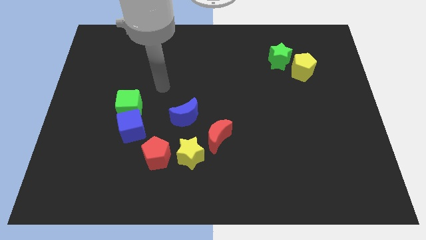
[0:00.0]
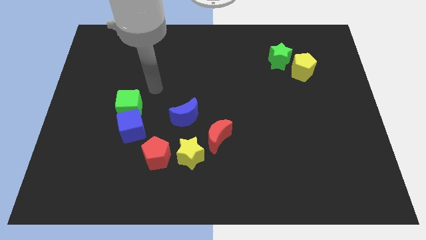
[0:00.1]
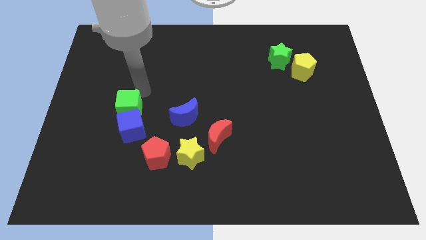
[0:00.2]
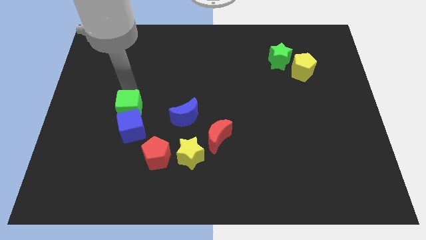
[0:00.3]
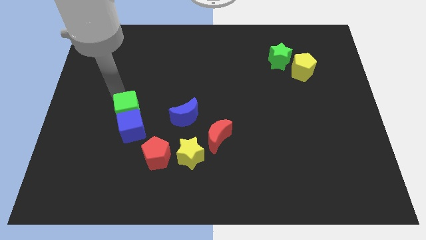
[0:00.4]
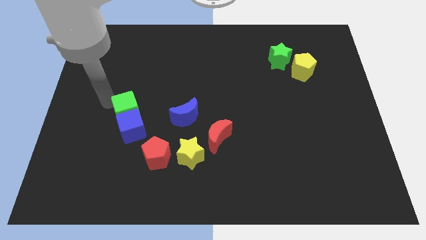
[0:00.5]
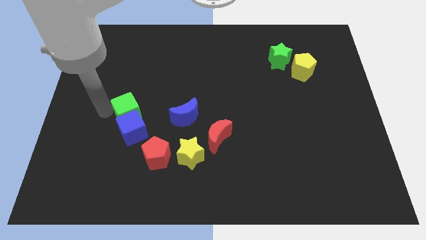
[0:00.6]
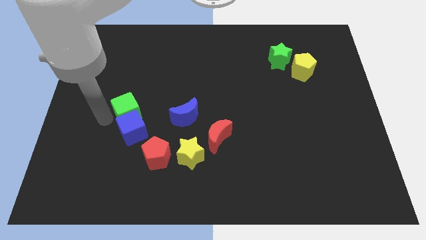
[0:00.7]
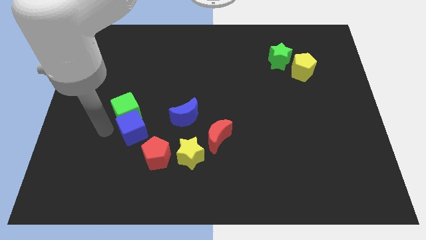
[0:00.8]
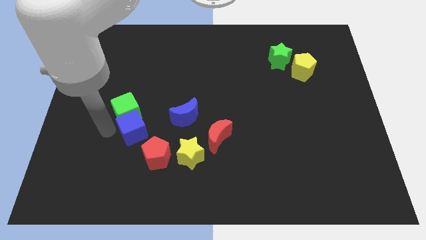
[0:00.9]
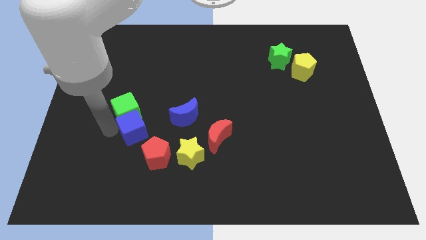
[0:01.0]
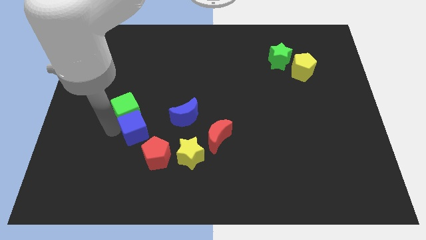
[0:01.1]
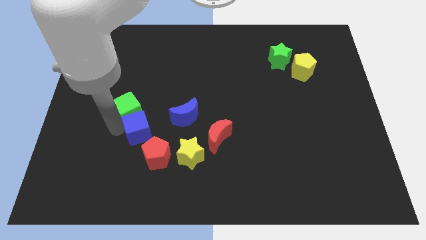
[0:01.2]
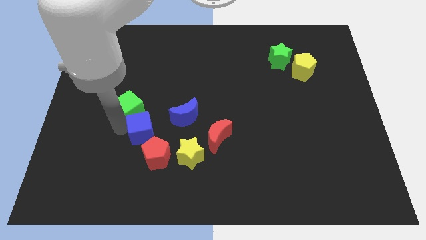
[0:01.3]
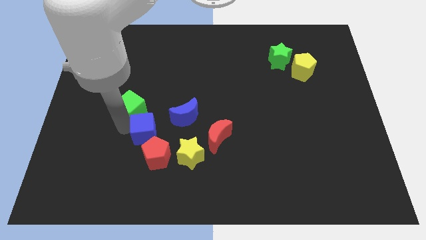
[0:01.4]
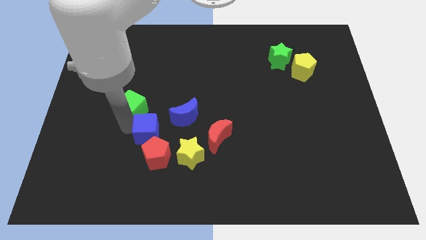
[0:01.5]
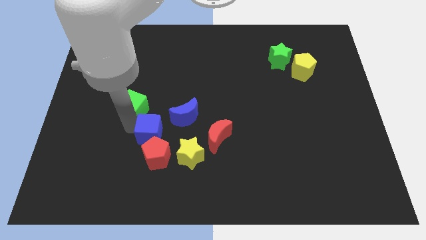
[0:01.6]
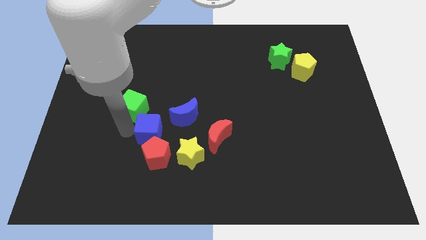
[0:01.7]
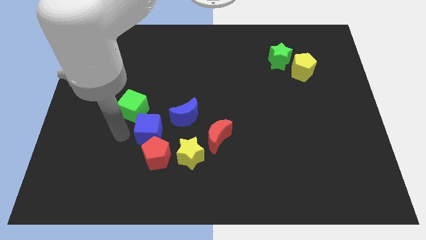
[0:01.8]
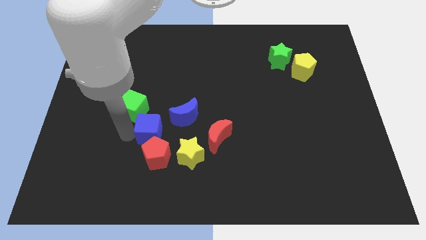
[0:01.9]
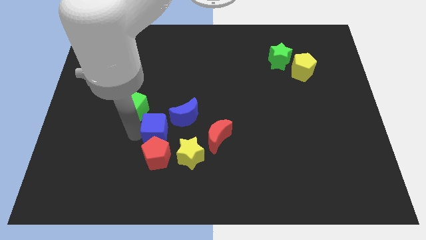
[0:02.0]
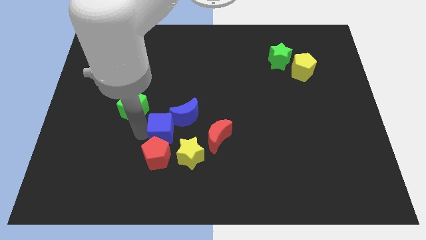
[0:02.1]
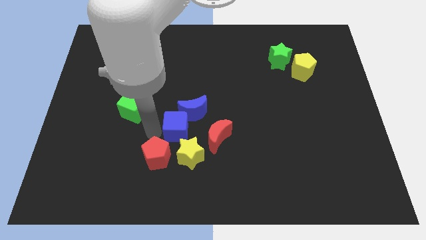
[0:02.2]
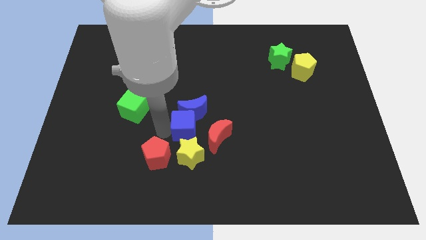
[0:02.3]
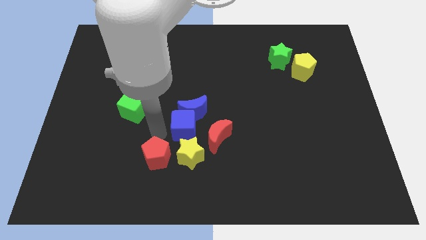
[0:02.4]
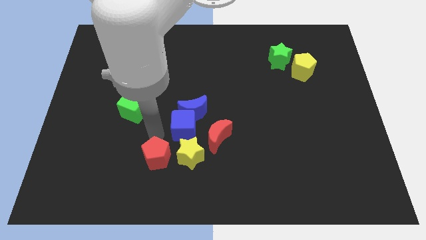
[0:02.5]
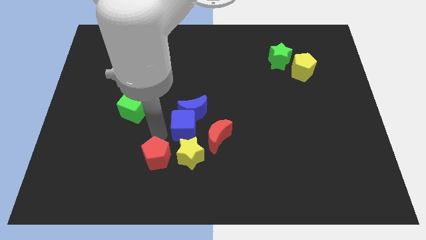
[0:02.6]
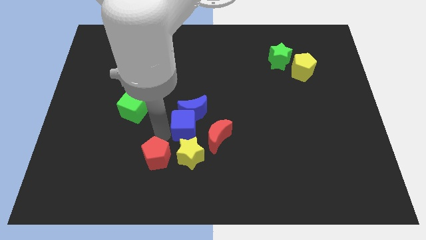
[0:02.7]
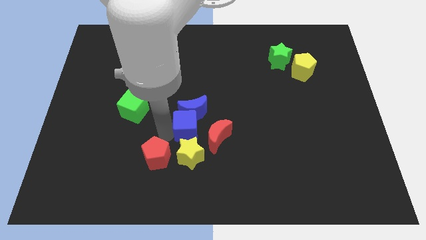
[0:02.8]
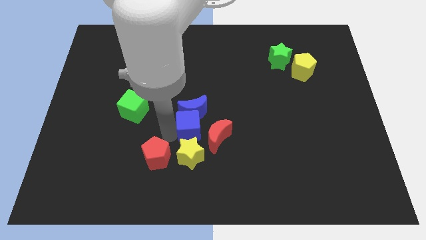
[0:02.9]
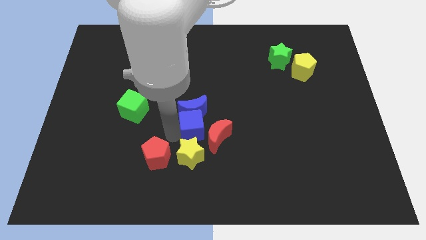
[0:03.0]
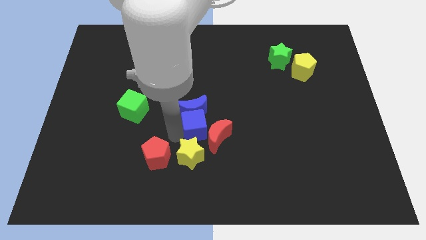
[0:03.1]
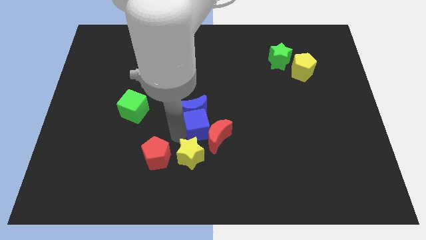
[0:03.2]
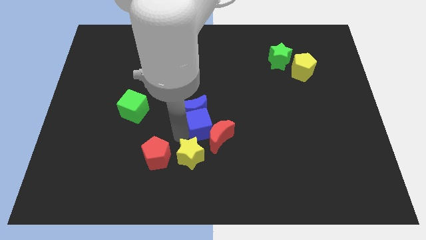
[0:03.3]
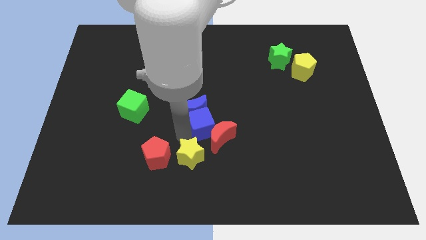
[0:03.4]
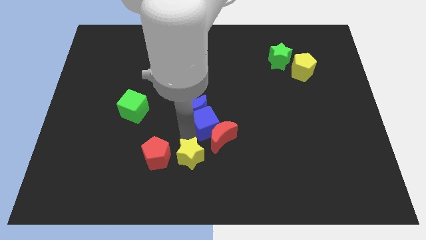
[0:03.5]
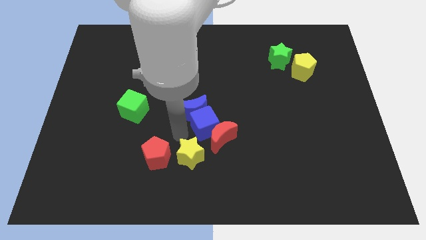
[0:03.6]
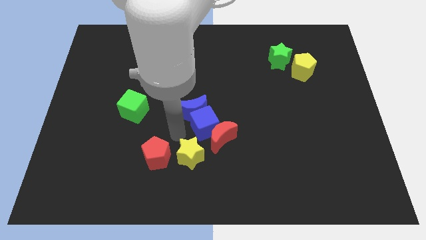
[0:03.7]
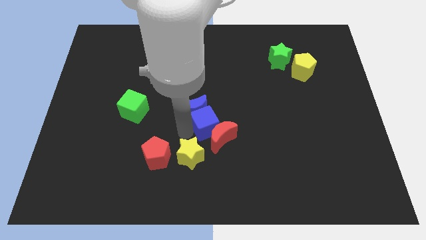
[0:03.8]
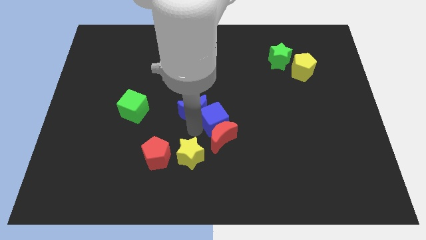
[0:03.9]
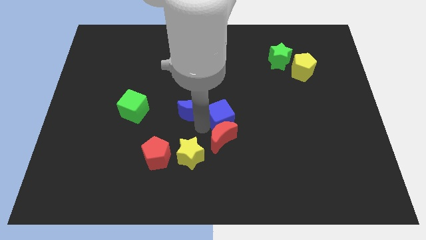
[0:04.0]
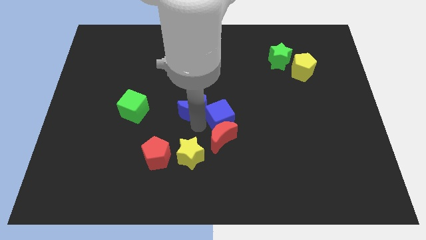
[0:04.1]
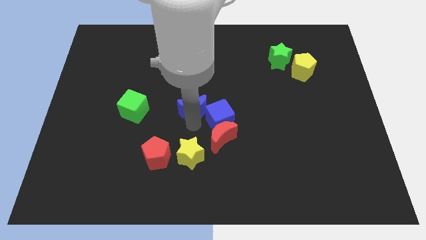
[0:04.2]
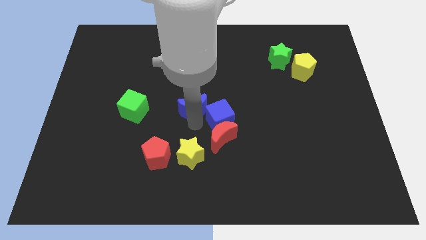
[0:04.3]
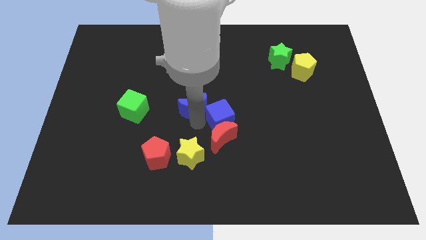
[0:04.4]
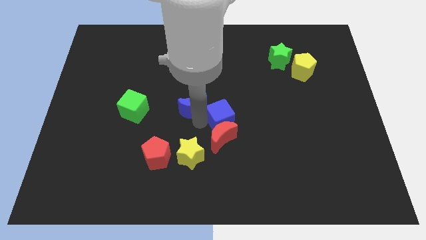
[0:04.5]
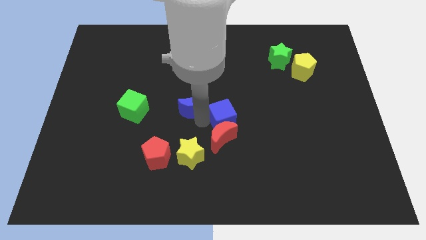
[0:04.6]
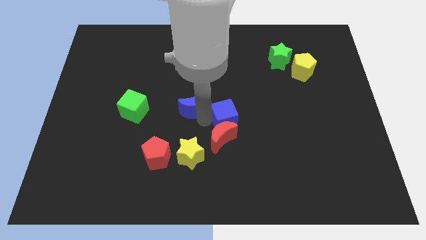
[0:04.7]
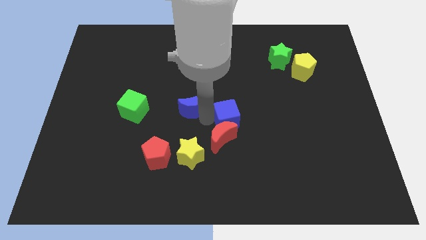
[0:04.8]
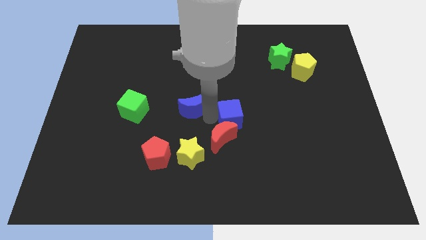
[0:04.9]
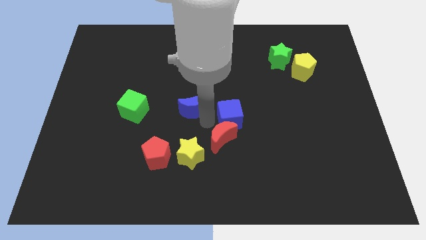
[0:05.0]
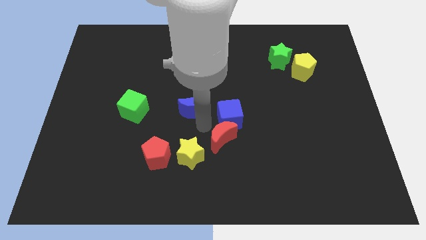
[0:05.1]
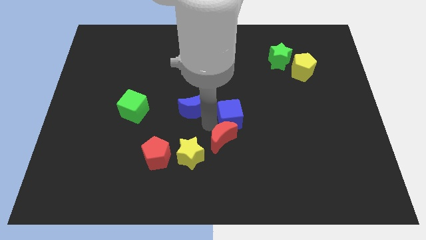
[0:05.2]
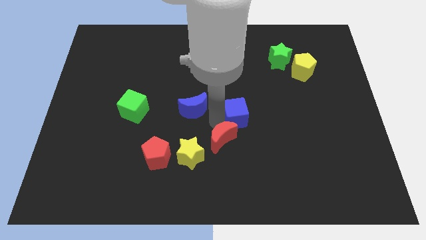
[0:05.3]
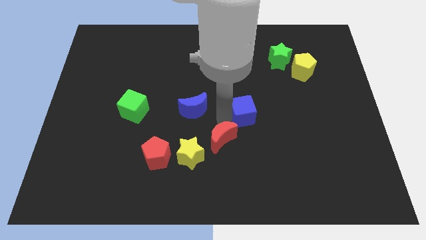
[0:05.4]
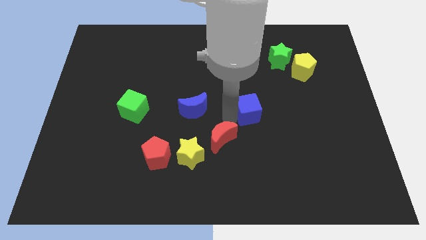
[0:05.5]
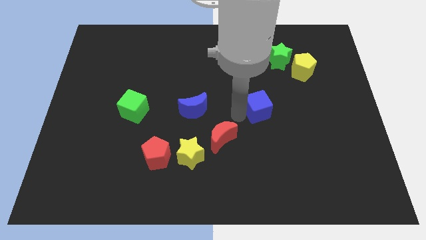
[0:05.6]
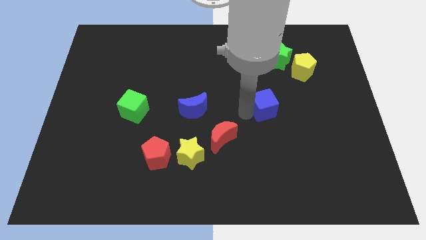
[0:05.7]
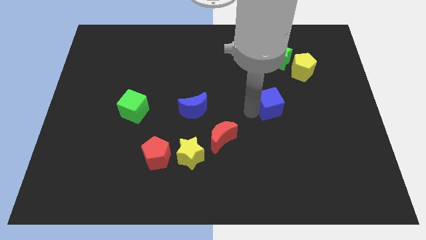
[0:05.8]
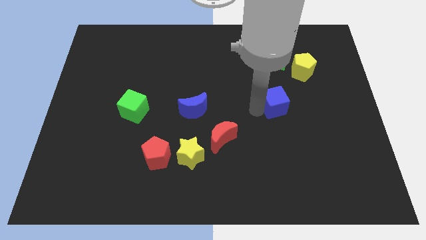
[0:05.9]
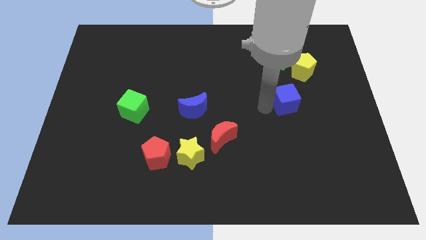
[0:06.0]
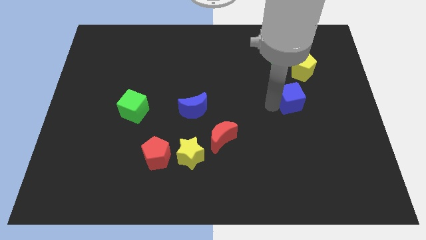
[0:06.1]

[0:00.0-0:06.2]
put the blue cube below the yellow pentagon

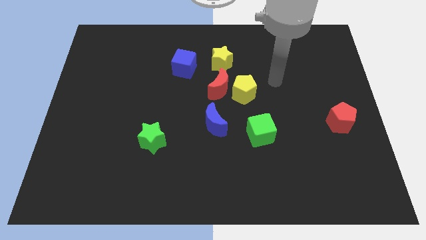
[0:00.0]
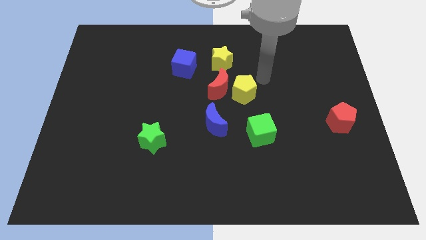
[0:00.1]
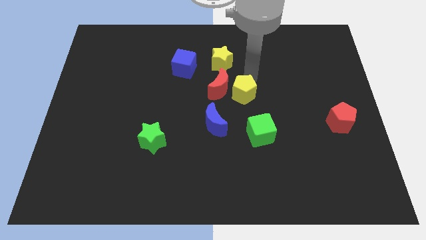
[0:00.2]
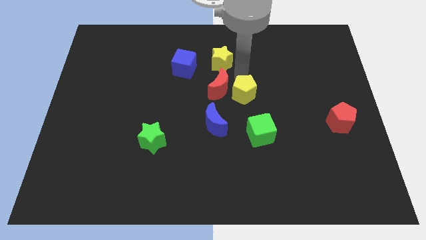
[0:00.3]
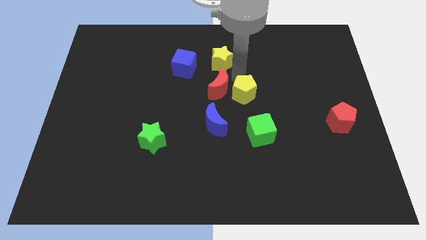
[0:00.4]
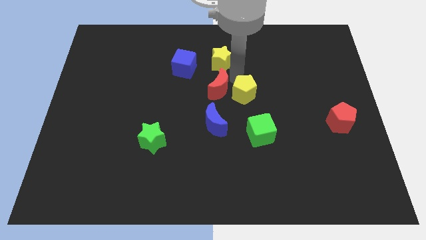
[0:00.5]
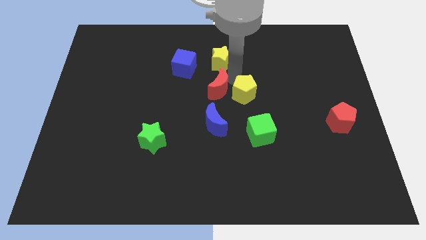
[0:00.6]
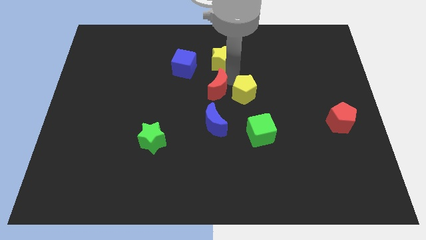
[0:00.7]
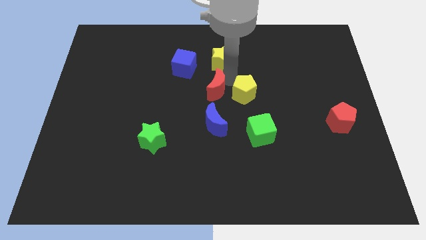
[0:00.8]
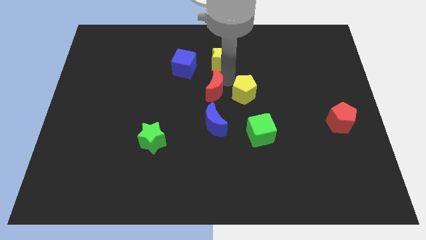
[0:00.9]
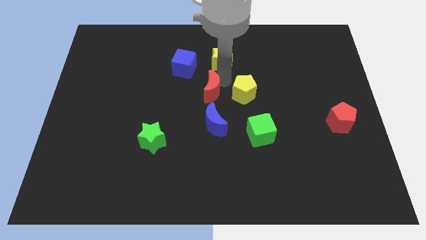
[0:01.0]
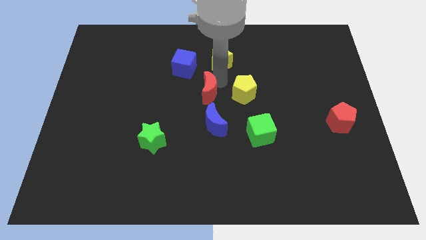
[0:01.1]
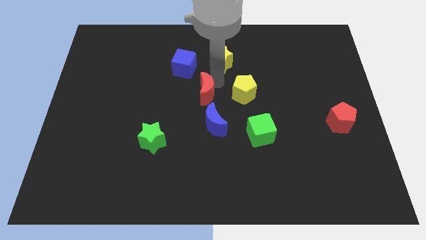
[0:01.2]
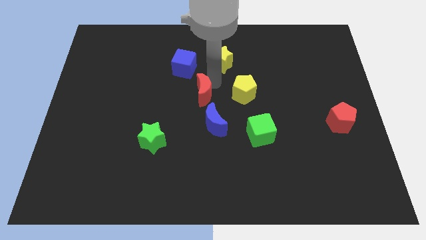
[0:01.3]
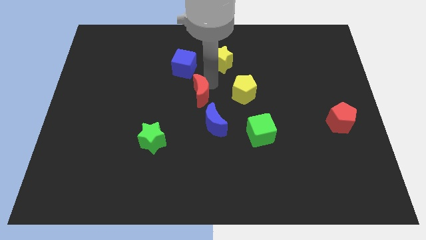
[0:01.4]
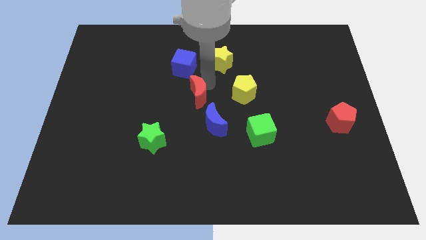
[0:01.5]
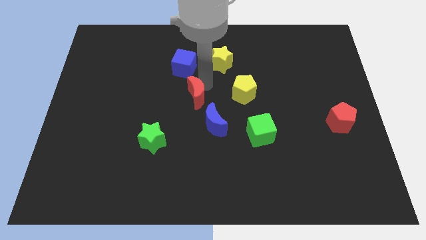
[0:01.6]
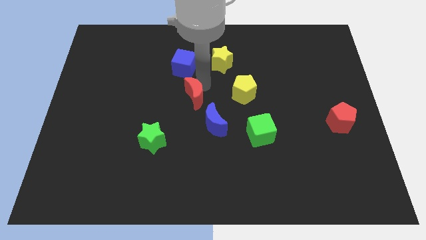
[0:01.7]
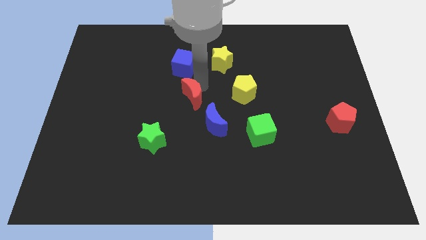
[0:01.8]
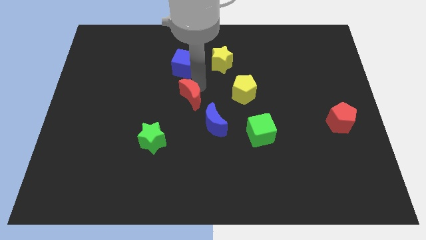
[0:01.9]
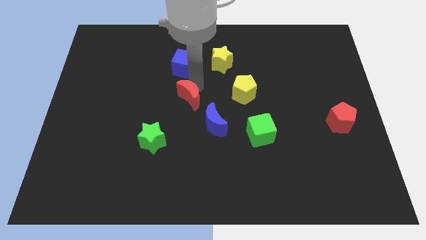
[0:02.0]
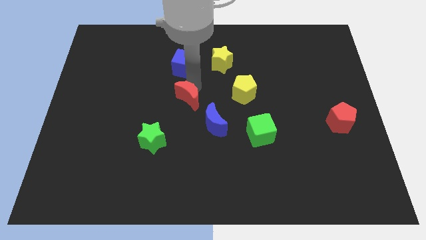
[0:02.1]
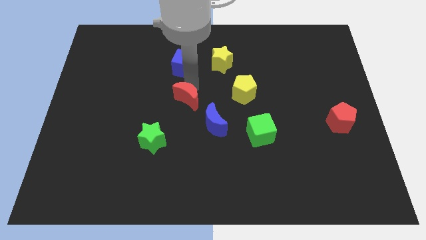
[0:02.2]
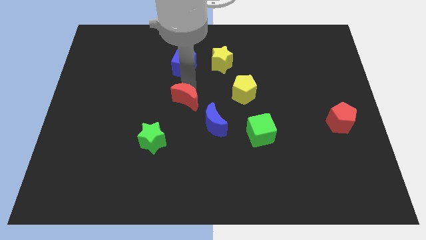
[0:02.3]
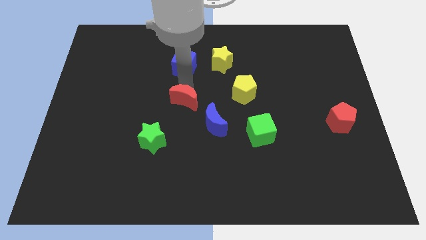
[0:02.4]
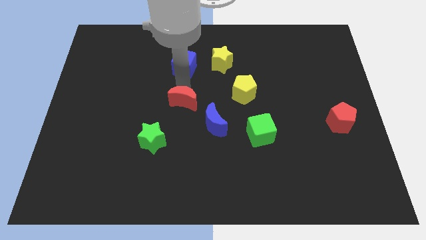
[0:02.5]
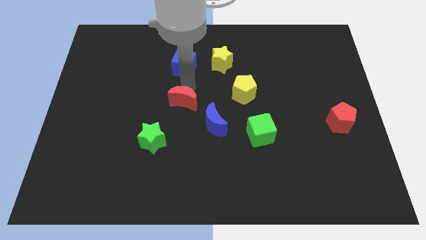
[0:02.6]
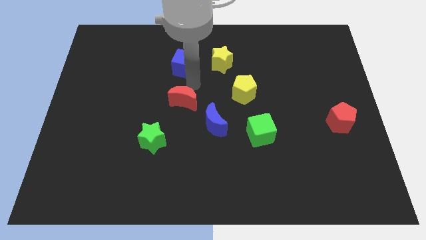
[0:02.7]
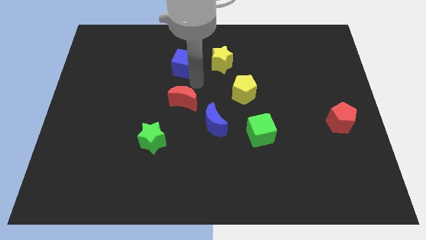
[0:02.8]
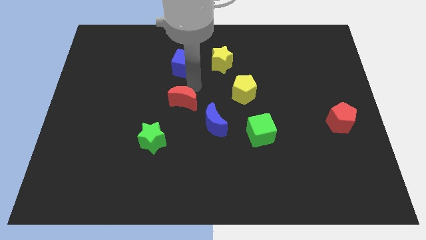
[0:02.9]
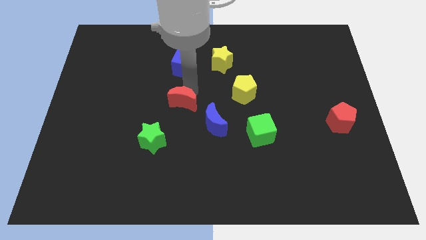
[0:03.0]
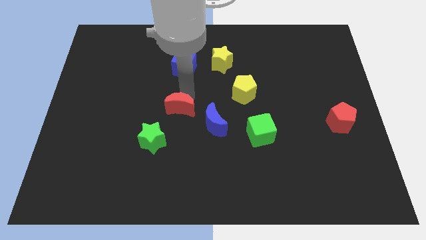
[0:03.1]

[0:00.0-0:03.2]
put the red moon just left of the blue moon
